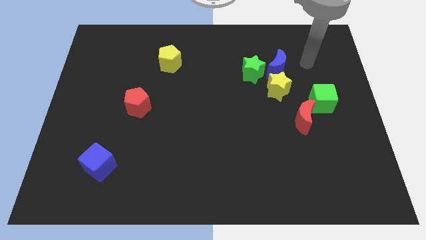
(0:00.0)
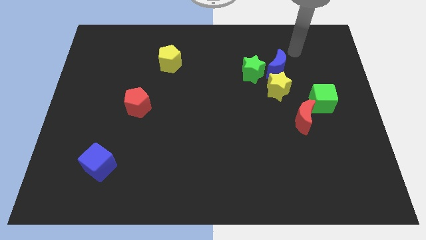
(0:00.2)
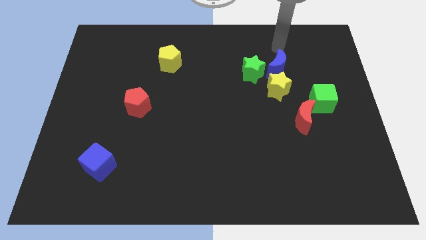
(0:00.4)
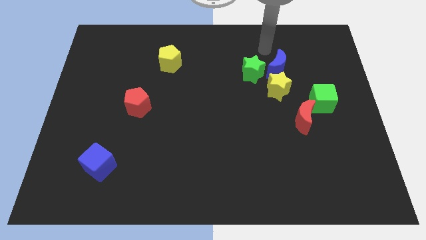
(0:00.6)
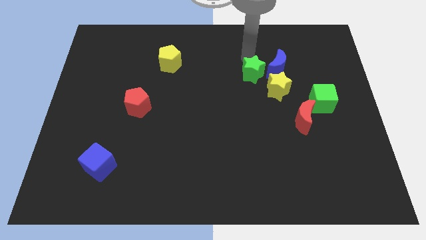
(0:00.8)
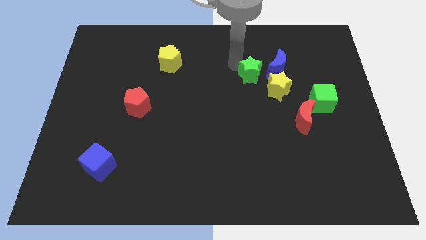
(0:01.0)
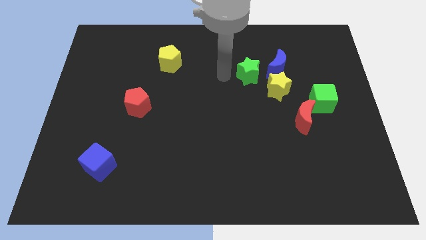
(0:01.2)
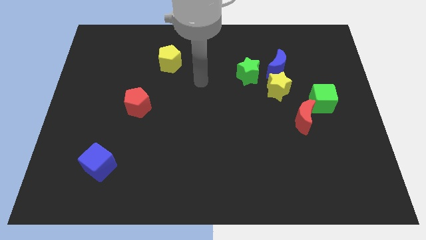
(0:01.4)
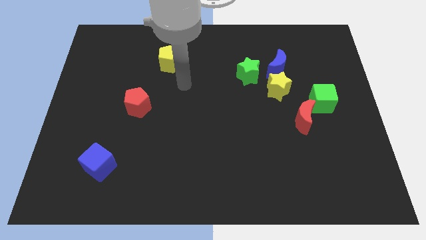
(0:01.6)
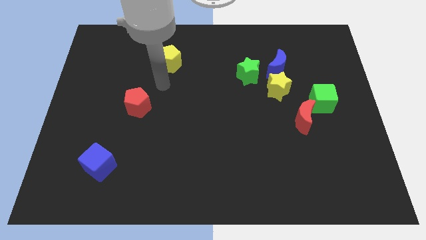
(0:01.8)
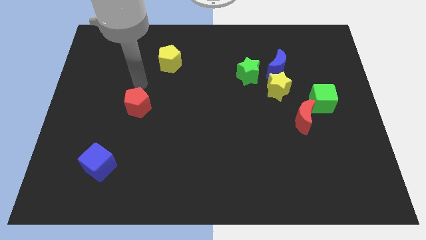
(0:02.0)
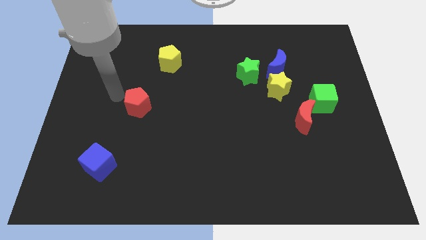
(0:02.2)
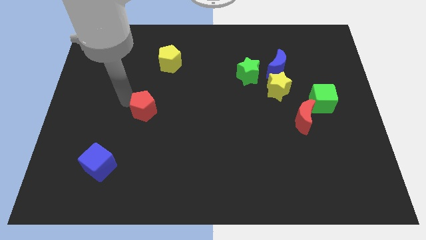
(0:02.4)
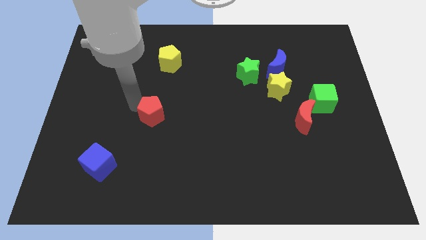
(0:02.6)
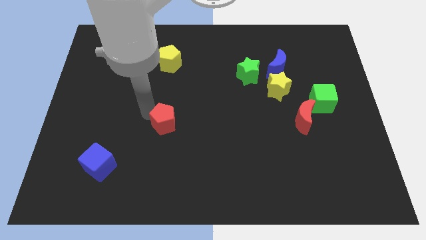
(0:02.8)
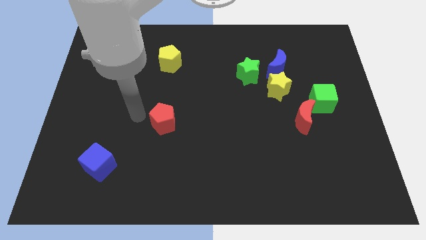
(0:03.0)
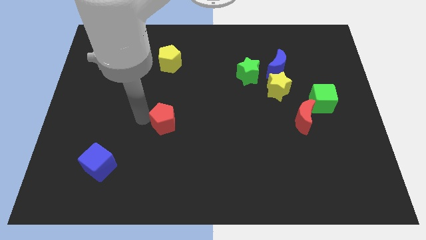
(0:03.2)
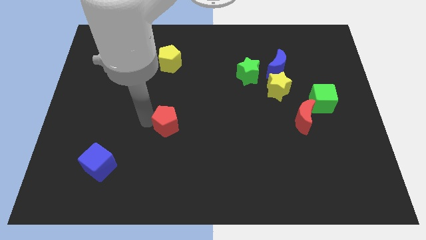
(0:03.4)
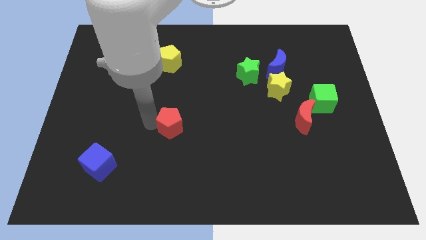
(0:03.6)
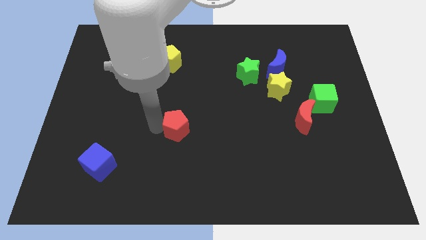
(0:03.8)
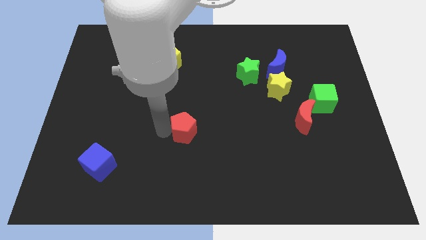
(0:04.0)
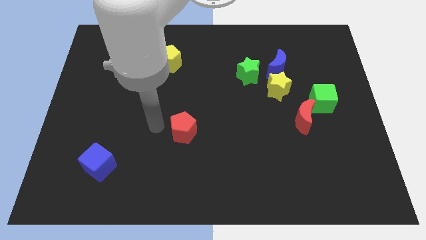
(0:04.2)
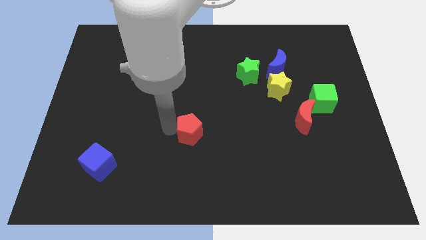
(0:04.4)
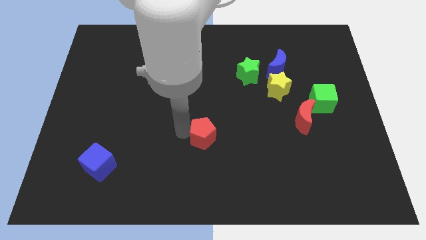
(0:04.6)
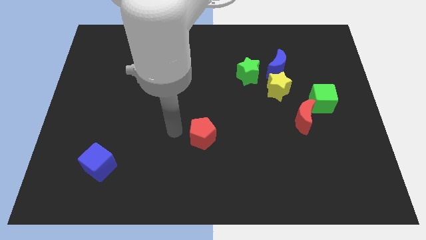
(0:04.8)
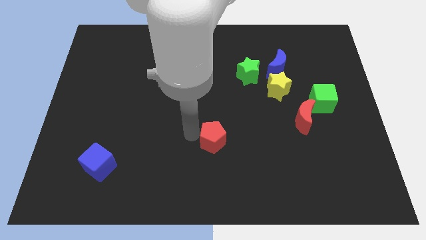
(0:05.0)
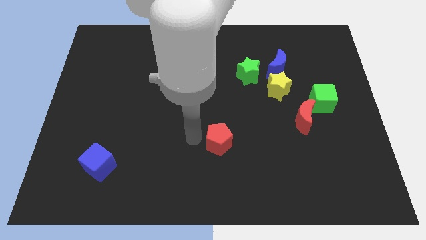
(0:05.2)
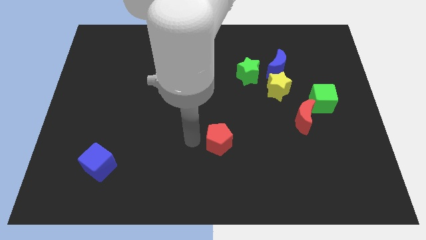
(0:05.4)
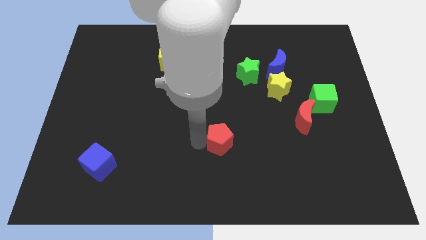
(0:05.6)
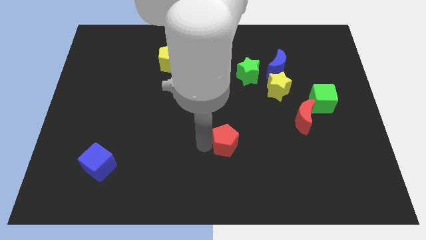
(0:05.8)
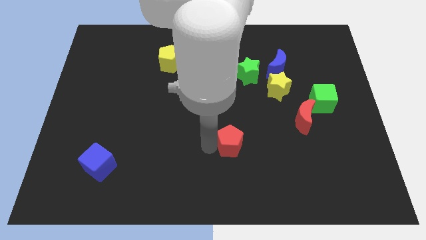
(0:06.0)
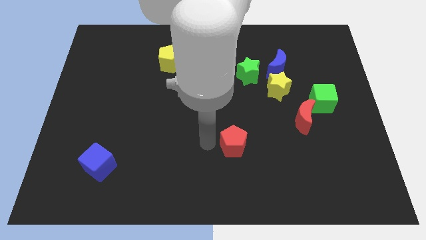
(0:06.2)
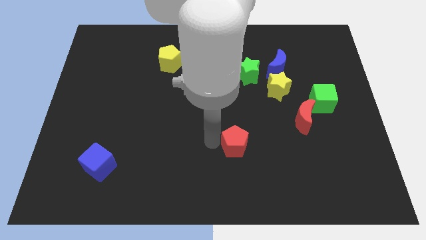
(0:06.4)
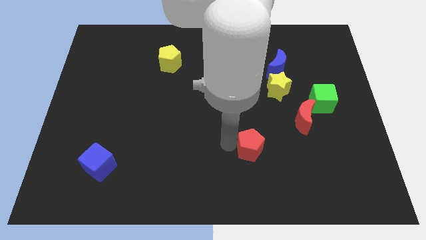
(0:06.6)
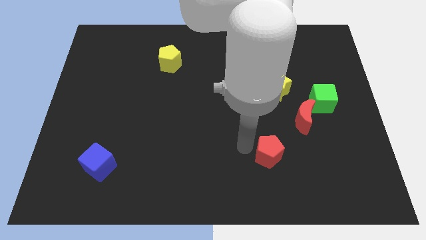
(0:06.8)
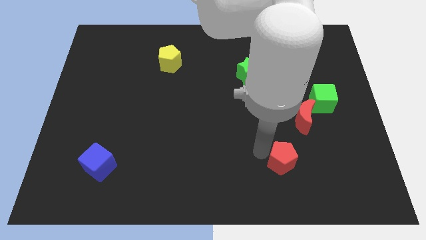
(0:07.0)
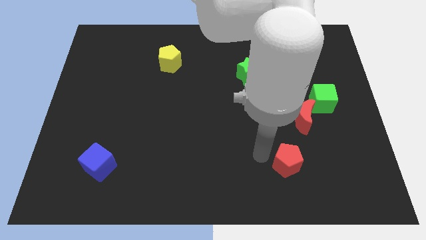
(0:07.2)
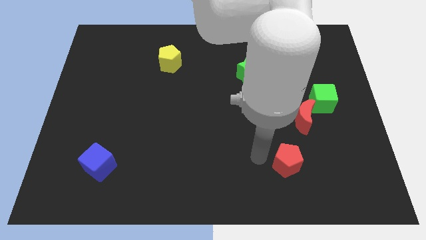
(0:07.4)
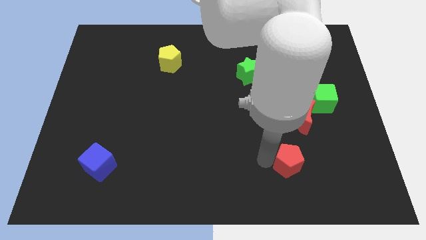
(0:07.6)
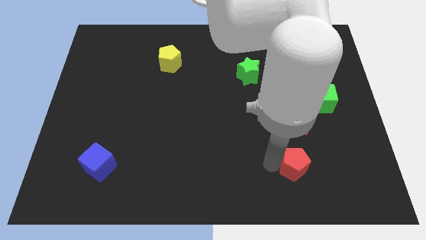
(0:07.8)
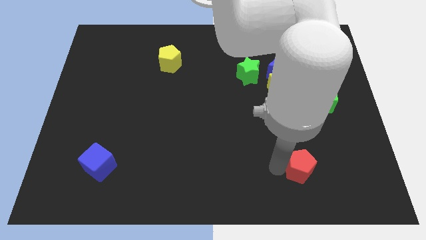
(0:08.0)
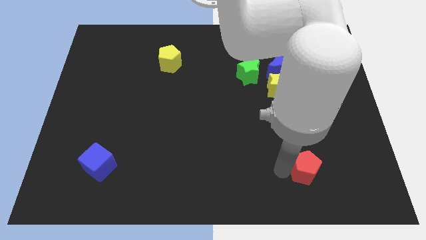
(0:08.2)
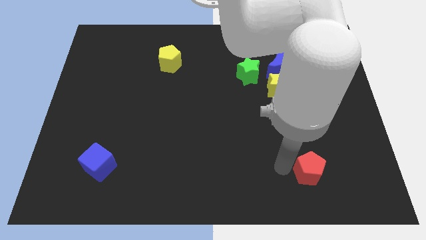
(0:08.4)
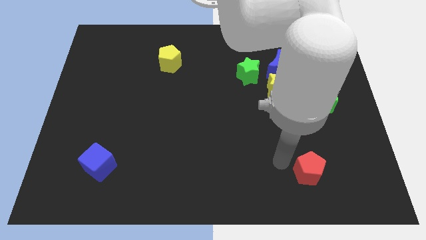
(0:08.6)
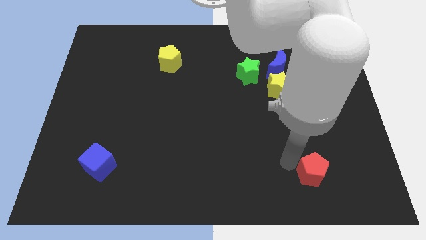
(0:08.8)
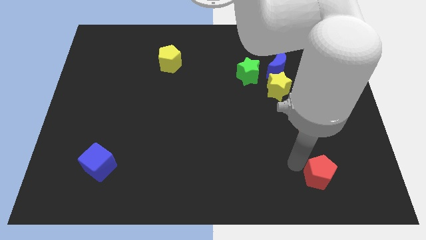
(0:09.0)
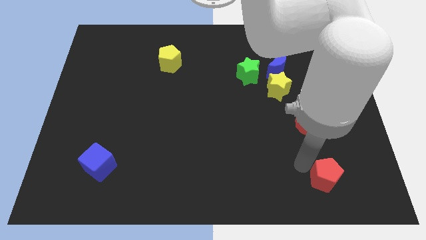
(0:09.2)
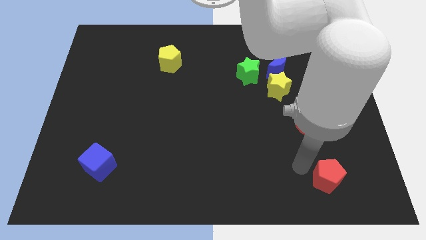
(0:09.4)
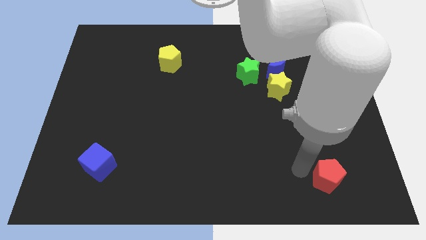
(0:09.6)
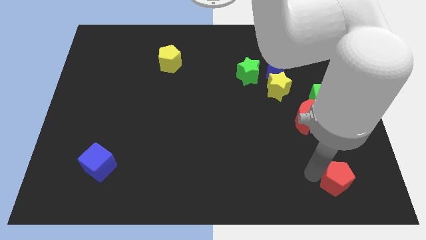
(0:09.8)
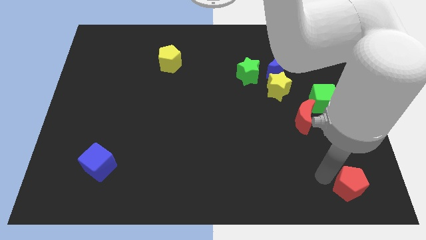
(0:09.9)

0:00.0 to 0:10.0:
push the red pentagon to the bottom right

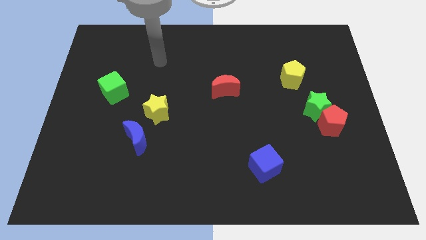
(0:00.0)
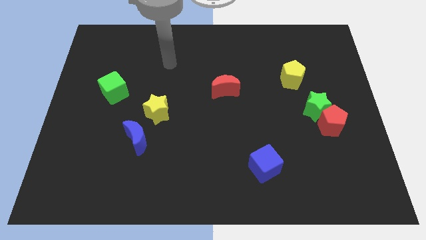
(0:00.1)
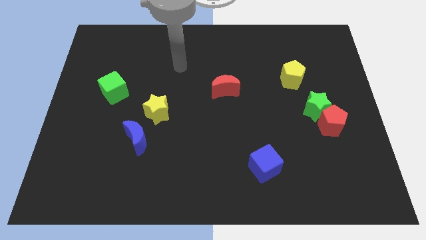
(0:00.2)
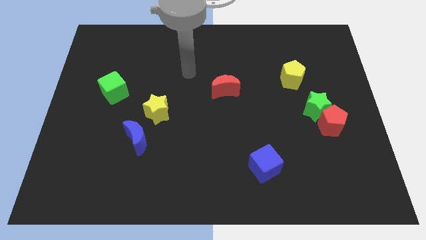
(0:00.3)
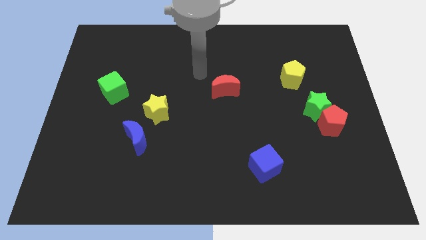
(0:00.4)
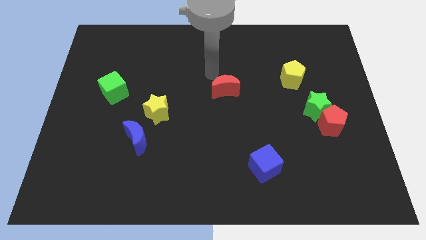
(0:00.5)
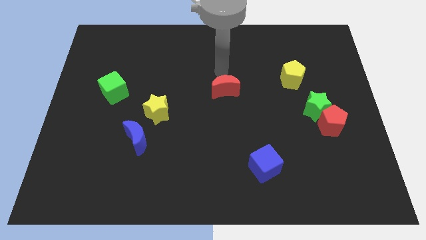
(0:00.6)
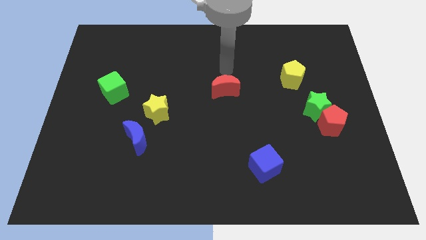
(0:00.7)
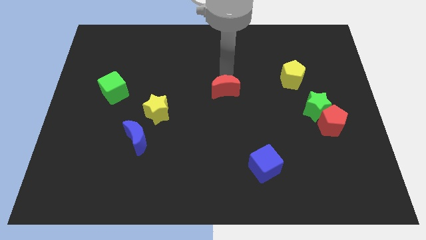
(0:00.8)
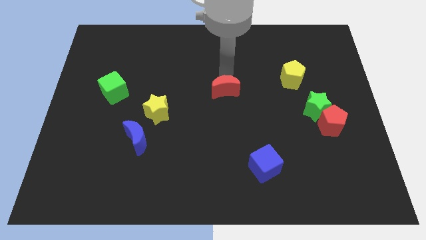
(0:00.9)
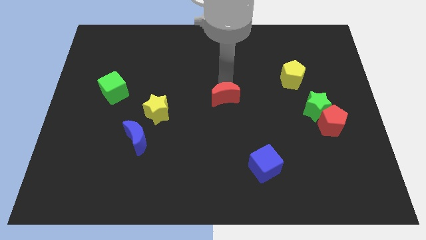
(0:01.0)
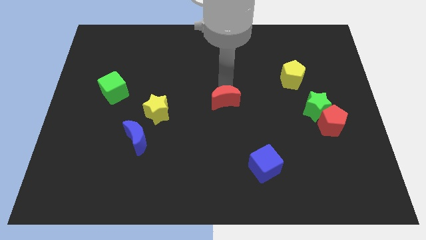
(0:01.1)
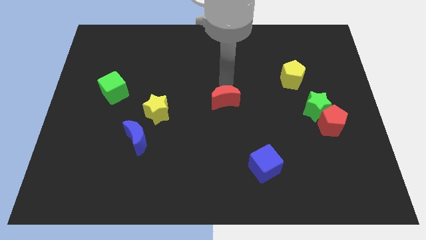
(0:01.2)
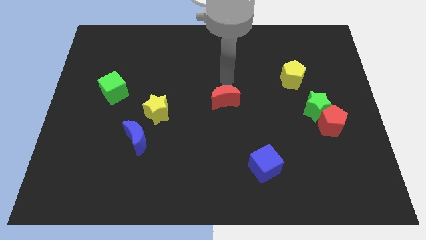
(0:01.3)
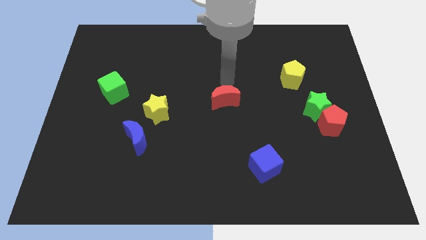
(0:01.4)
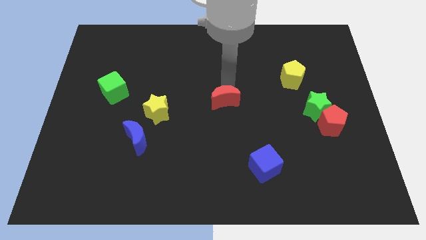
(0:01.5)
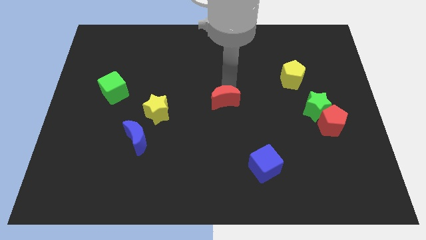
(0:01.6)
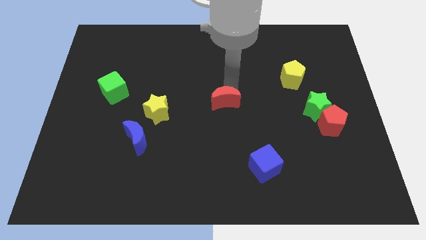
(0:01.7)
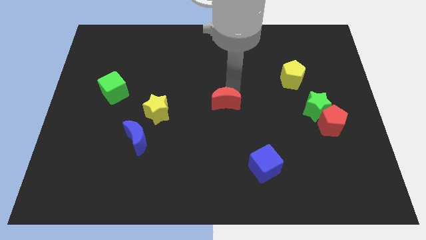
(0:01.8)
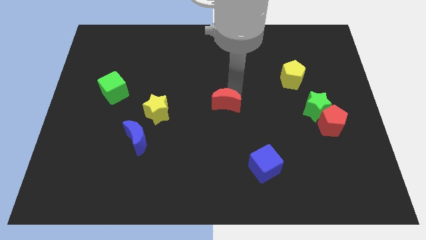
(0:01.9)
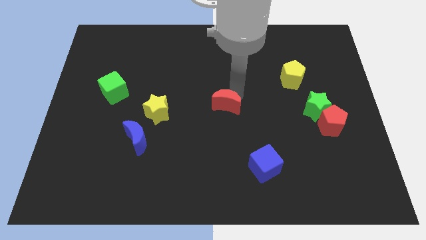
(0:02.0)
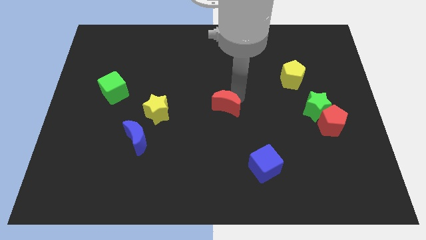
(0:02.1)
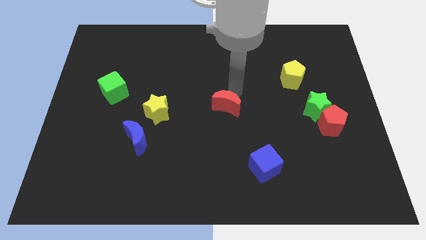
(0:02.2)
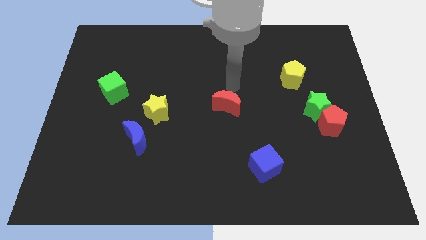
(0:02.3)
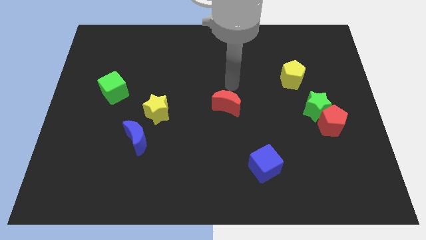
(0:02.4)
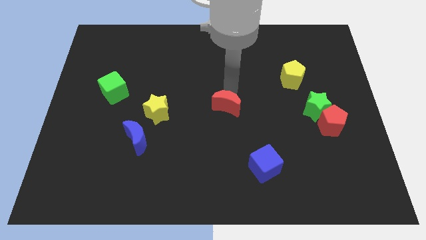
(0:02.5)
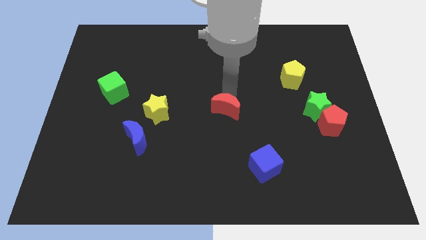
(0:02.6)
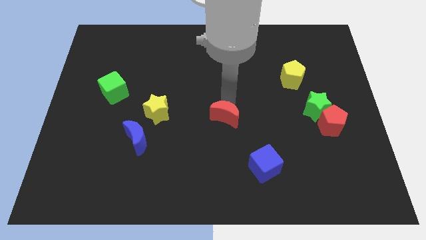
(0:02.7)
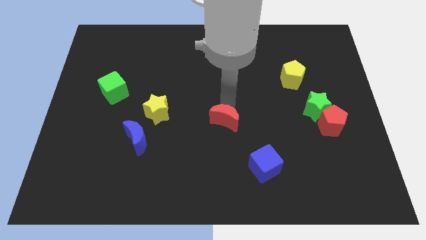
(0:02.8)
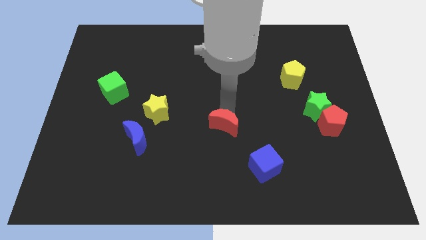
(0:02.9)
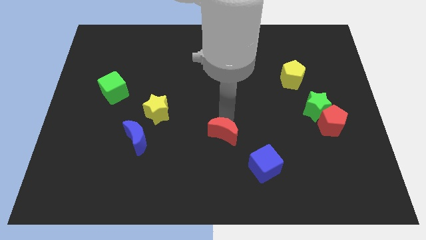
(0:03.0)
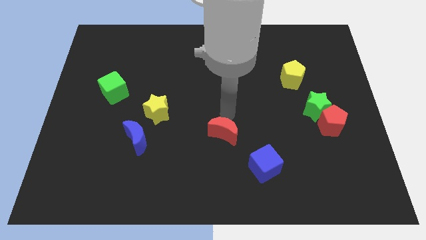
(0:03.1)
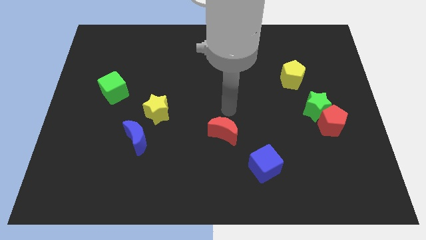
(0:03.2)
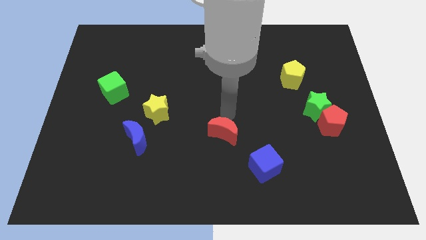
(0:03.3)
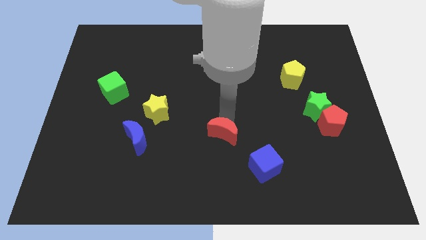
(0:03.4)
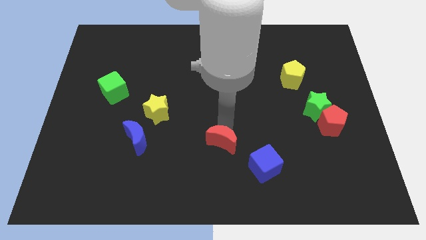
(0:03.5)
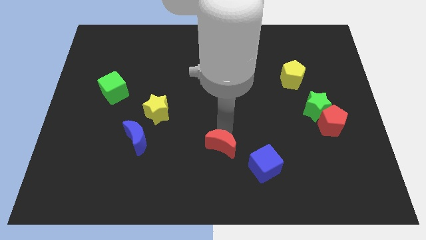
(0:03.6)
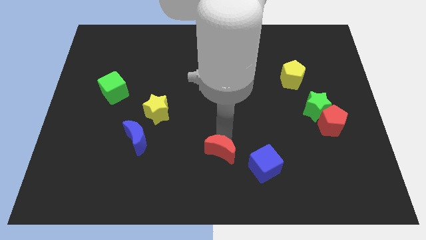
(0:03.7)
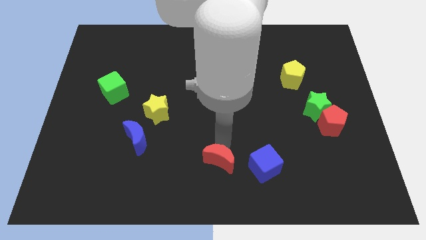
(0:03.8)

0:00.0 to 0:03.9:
put the red moon to the bottom side
